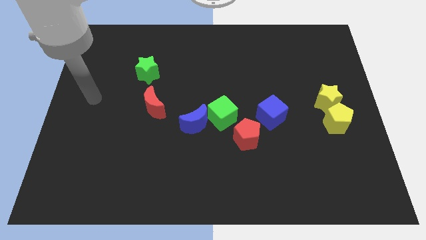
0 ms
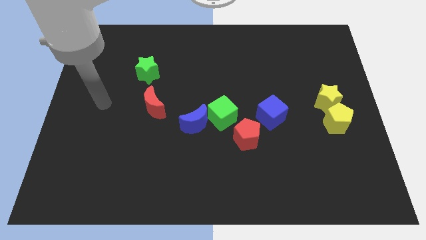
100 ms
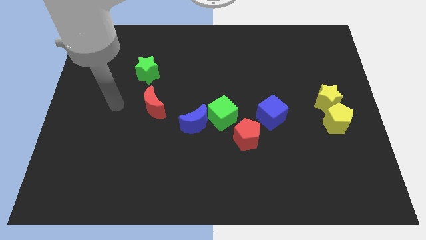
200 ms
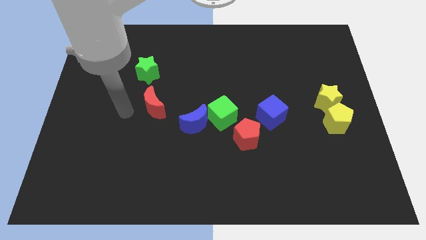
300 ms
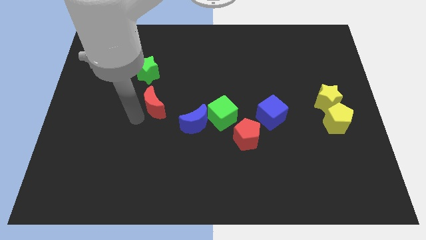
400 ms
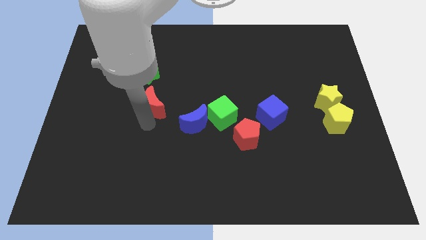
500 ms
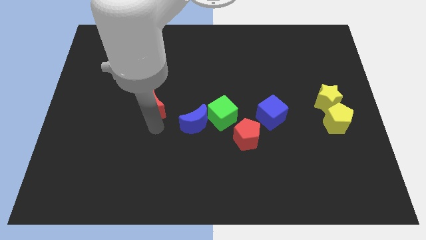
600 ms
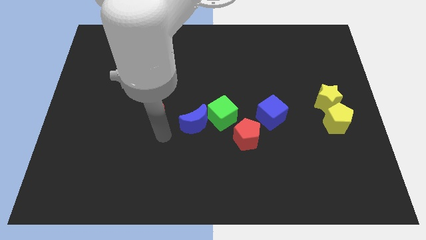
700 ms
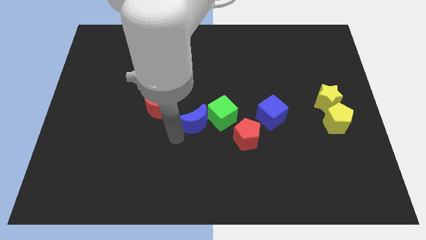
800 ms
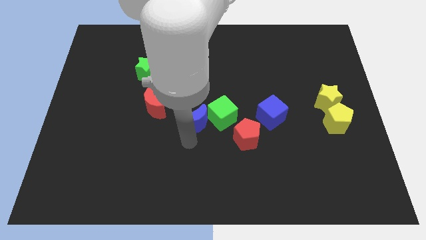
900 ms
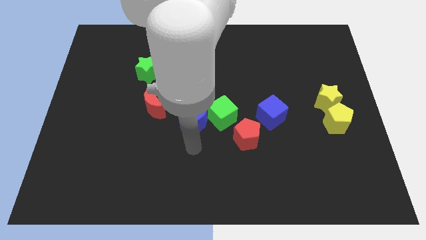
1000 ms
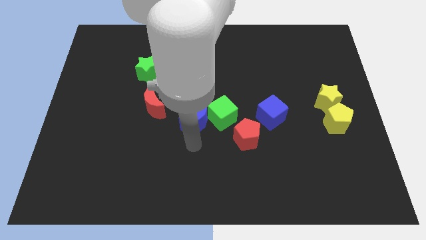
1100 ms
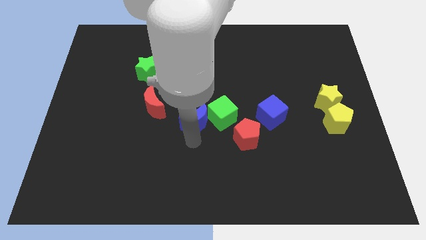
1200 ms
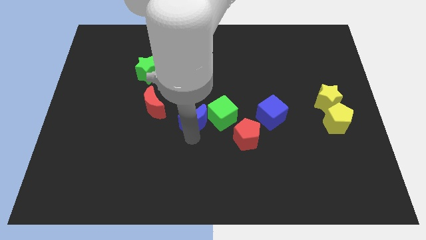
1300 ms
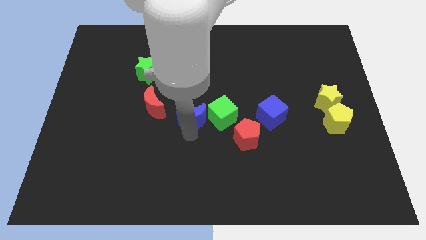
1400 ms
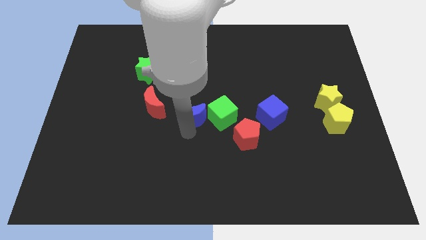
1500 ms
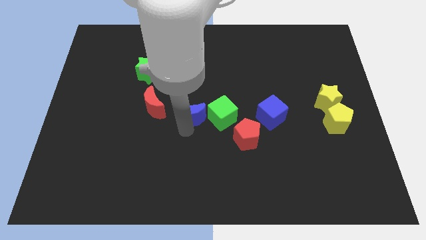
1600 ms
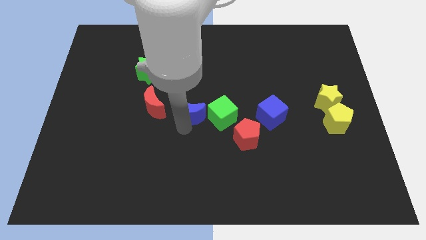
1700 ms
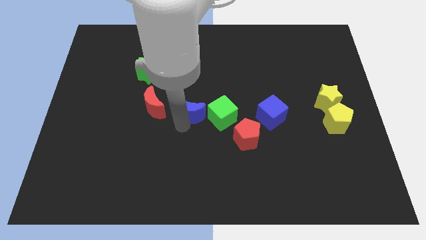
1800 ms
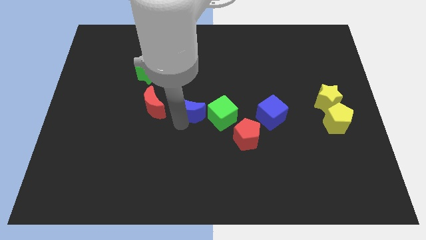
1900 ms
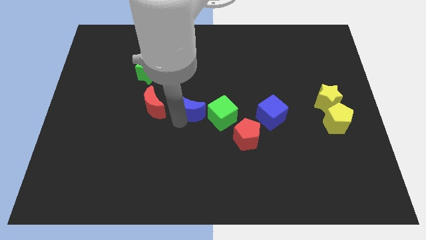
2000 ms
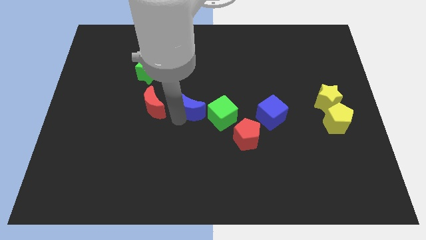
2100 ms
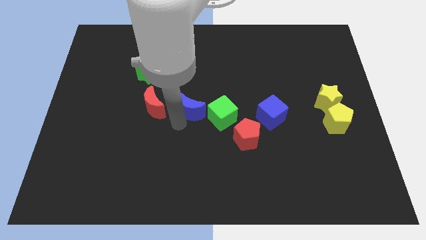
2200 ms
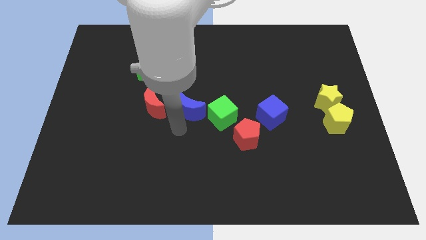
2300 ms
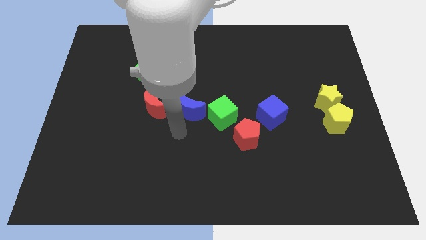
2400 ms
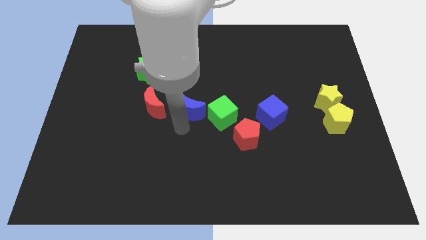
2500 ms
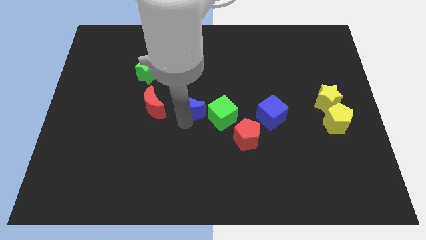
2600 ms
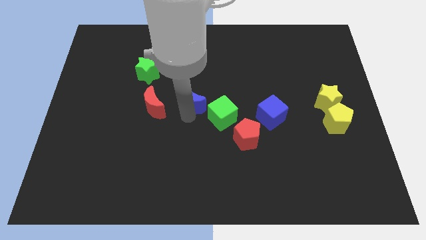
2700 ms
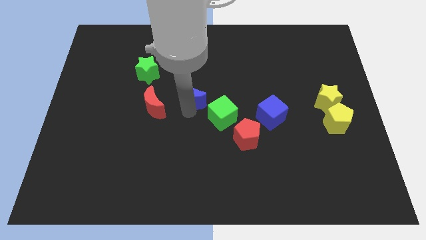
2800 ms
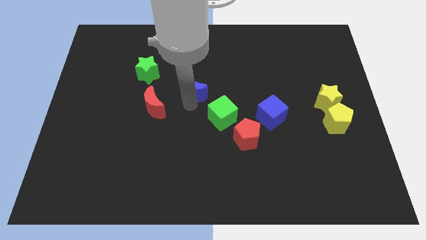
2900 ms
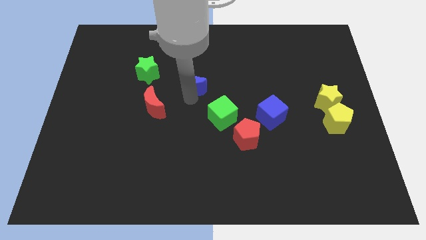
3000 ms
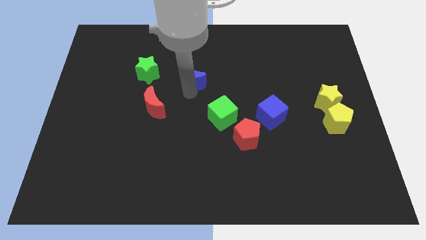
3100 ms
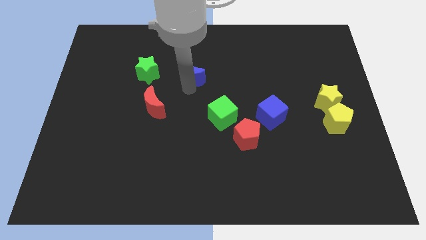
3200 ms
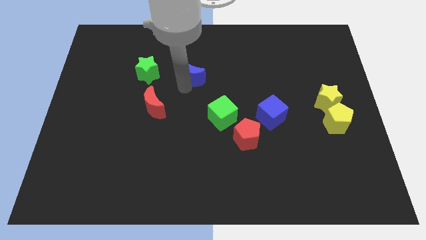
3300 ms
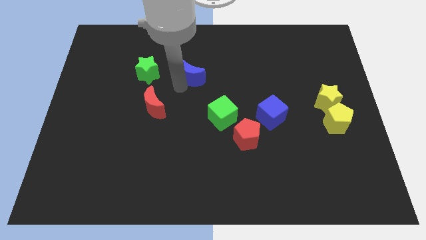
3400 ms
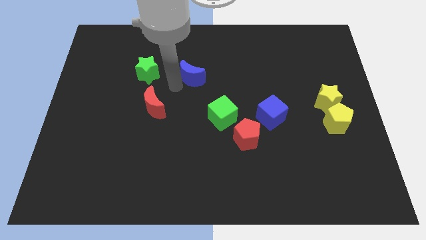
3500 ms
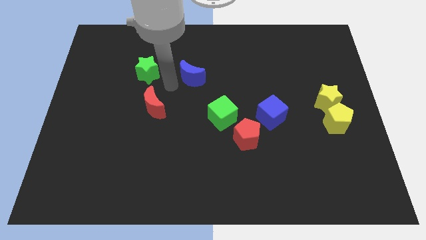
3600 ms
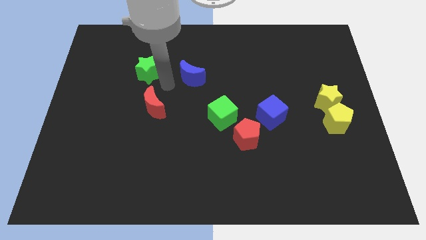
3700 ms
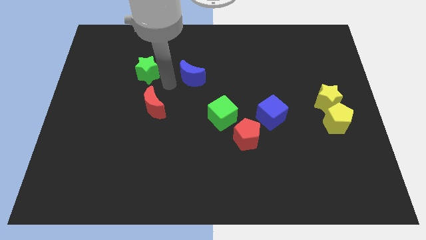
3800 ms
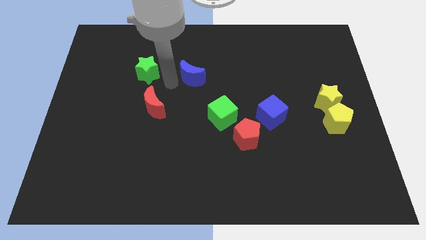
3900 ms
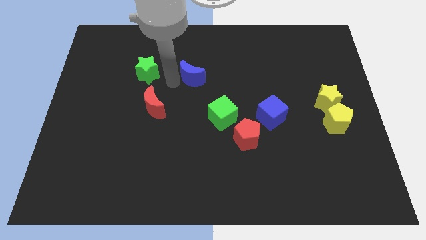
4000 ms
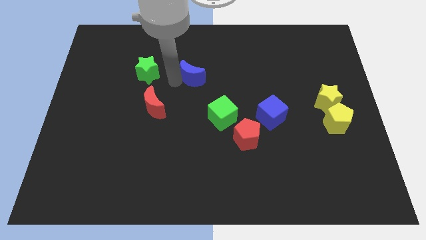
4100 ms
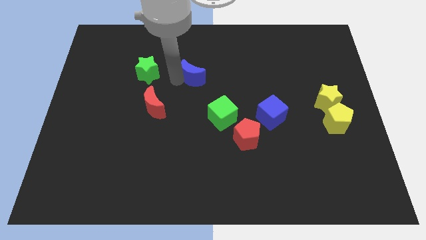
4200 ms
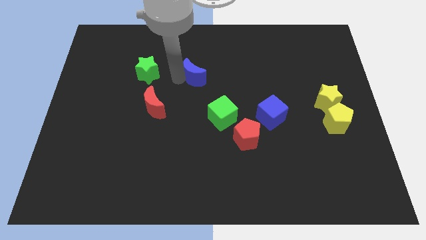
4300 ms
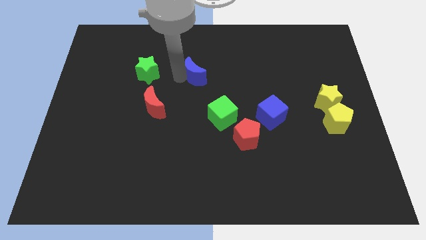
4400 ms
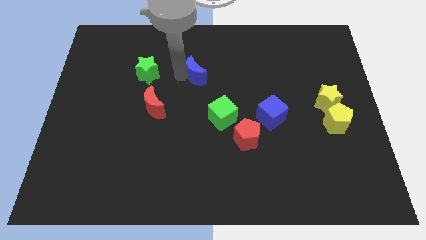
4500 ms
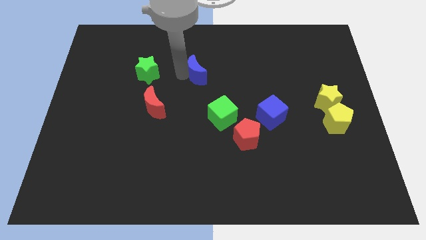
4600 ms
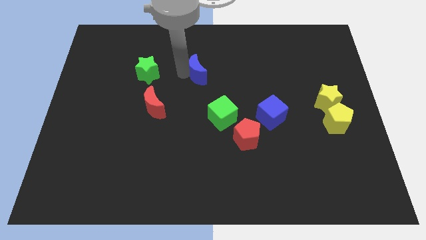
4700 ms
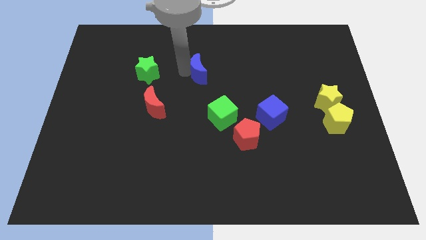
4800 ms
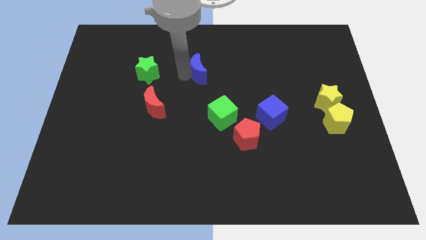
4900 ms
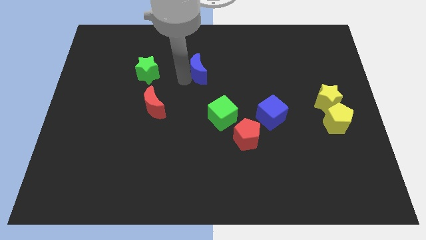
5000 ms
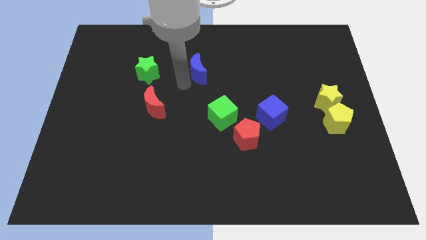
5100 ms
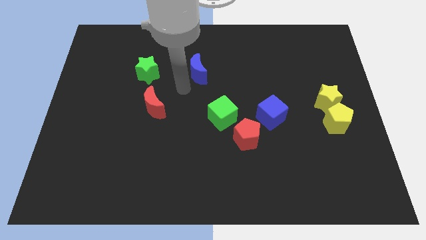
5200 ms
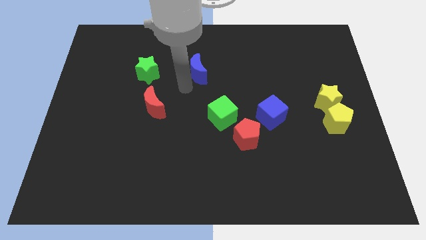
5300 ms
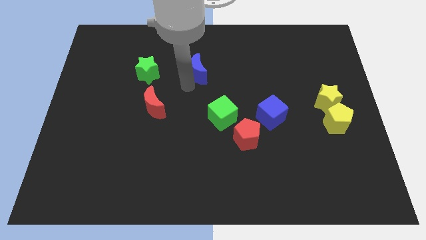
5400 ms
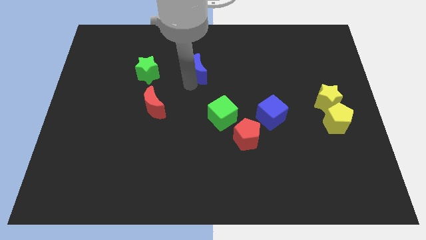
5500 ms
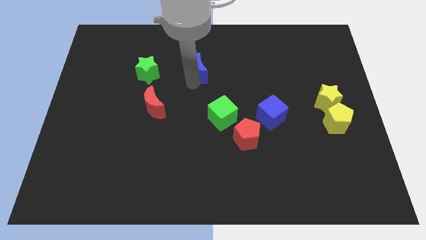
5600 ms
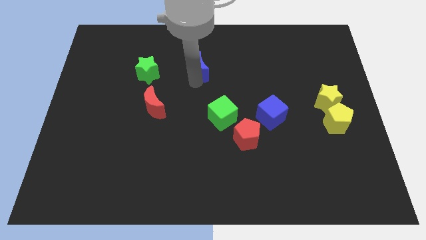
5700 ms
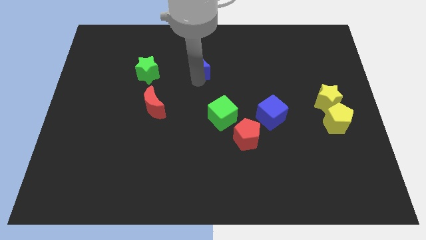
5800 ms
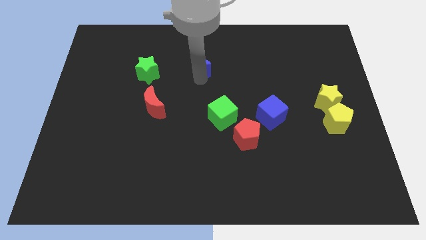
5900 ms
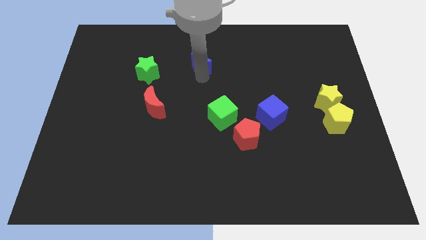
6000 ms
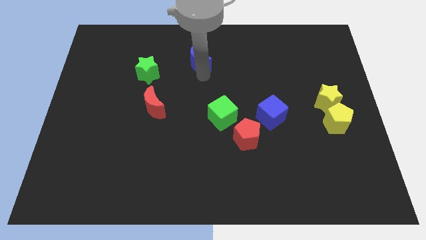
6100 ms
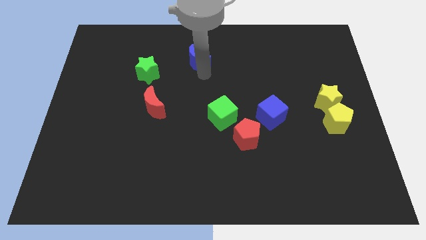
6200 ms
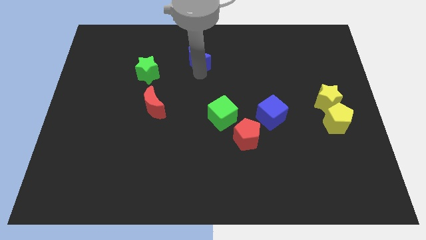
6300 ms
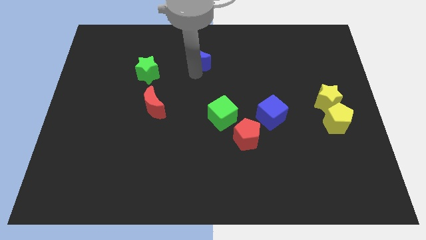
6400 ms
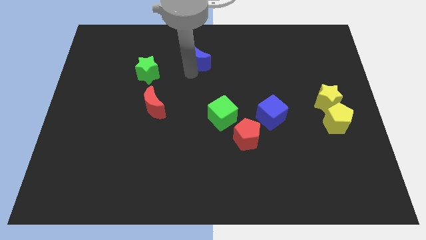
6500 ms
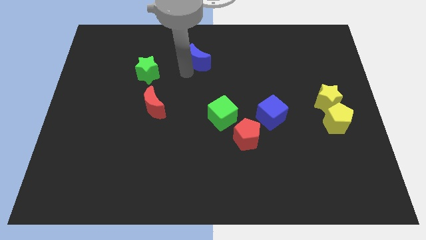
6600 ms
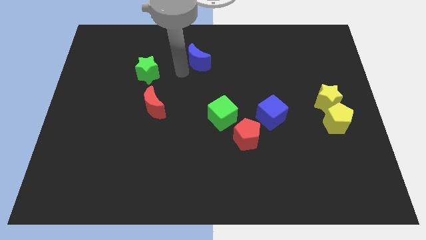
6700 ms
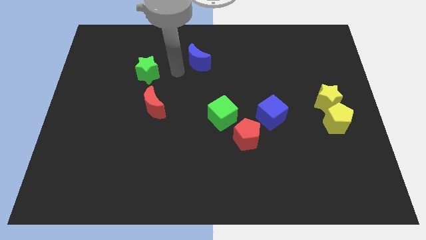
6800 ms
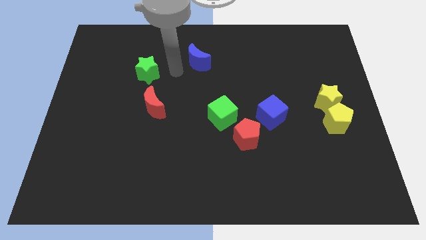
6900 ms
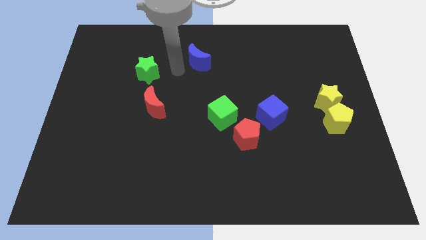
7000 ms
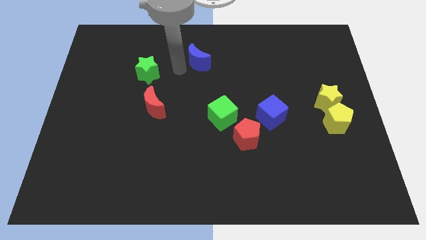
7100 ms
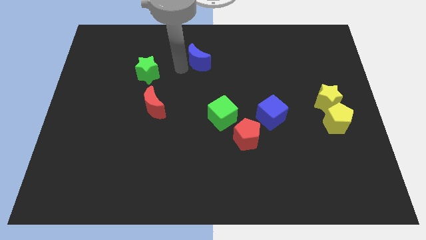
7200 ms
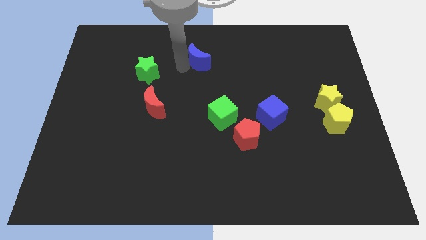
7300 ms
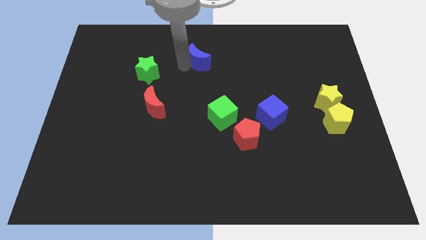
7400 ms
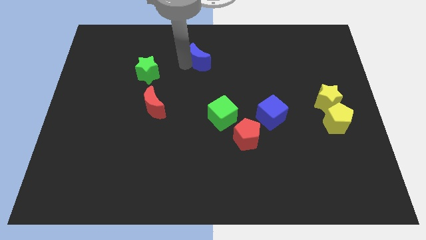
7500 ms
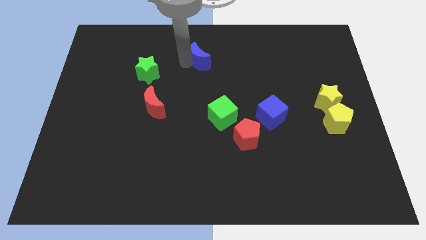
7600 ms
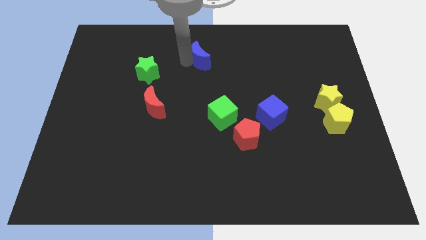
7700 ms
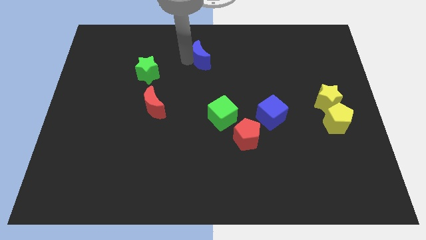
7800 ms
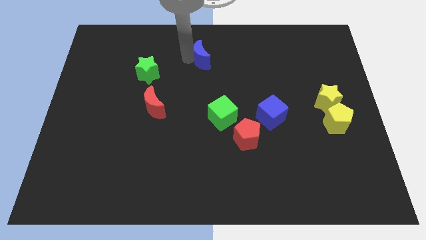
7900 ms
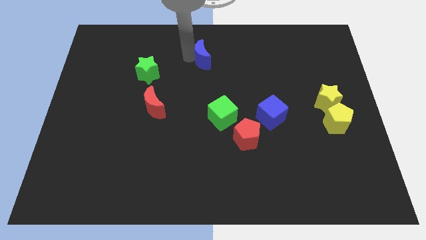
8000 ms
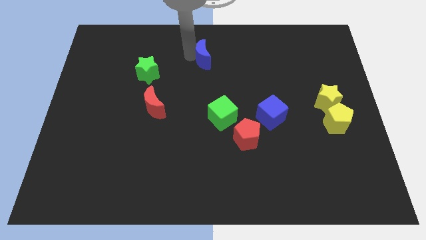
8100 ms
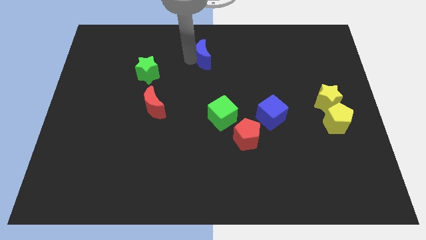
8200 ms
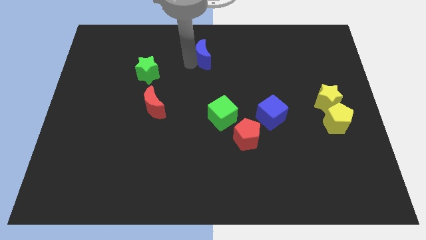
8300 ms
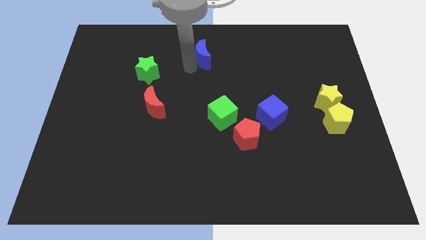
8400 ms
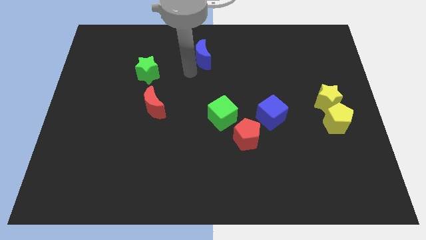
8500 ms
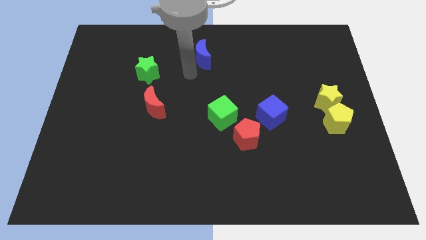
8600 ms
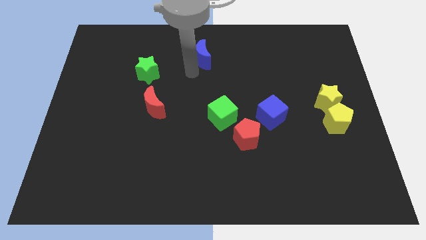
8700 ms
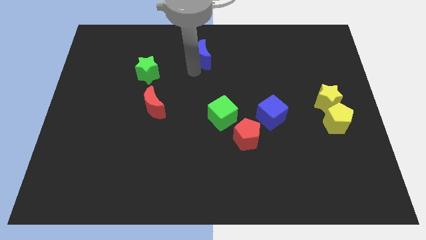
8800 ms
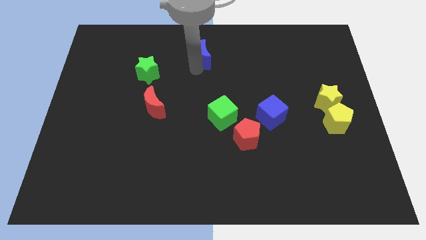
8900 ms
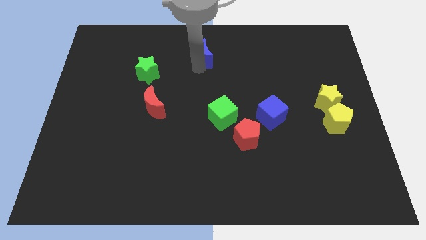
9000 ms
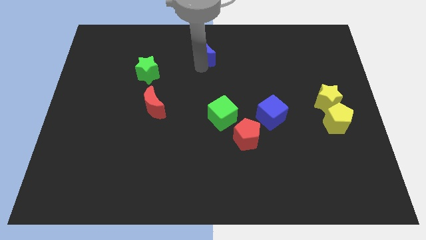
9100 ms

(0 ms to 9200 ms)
put the blue moon to the towards your base
